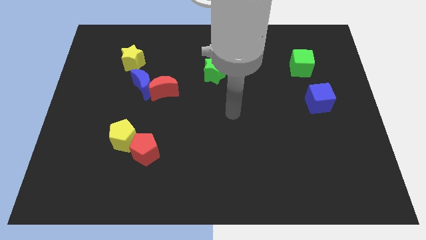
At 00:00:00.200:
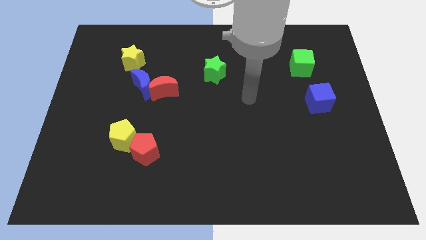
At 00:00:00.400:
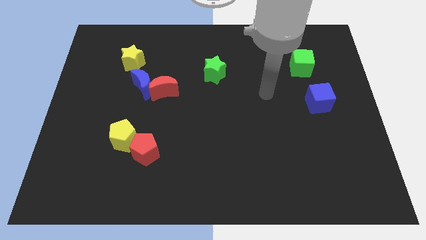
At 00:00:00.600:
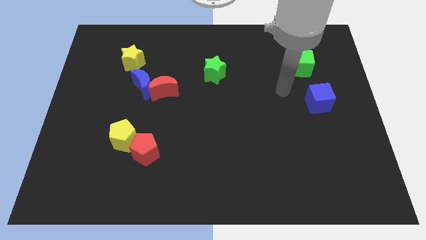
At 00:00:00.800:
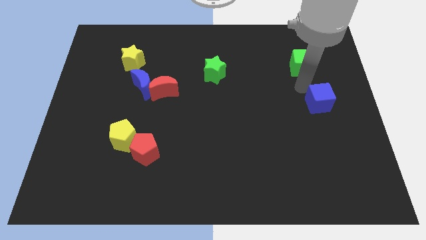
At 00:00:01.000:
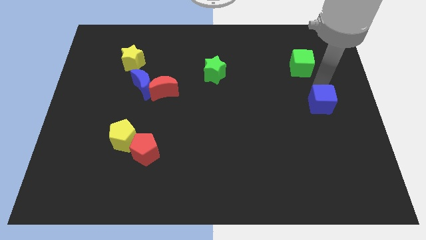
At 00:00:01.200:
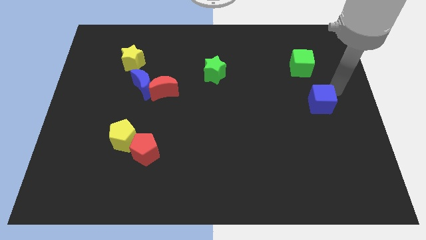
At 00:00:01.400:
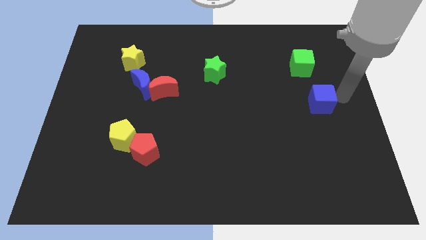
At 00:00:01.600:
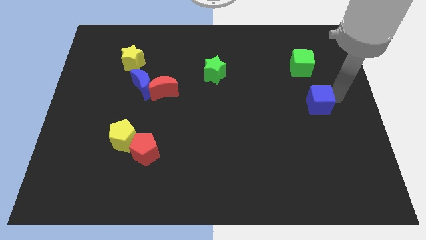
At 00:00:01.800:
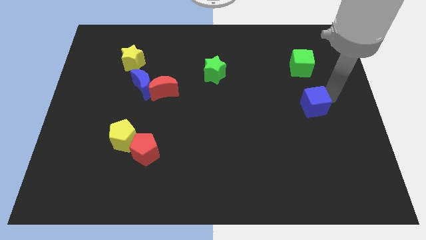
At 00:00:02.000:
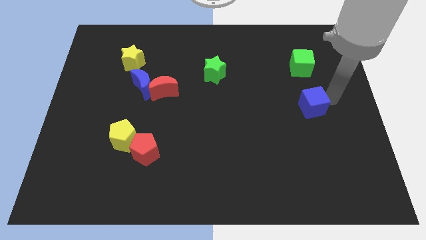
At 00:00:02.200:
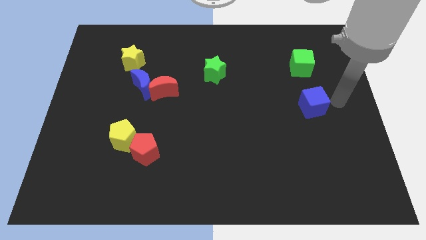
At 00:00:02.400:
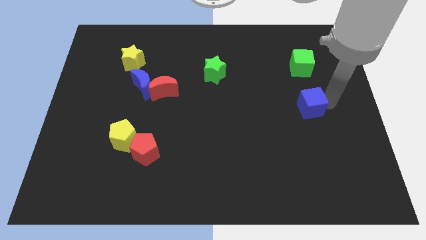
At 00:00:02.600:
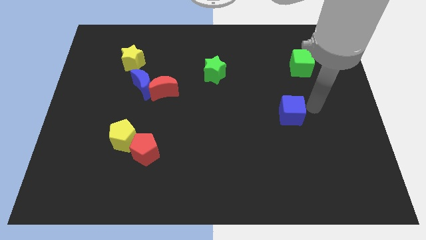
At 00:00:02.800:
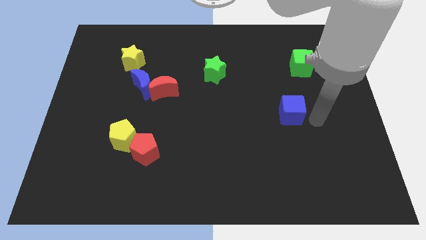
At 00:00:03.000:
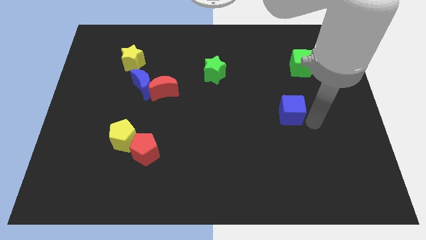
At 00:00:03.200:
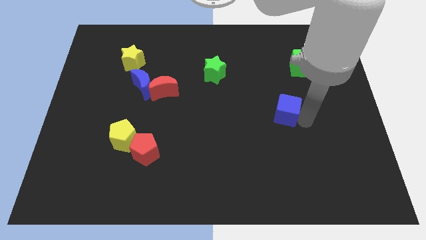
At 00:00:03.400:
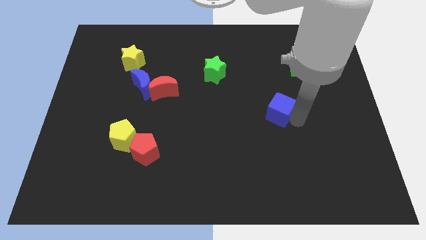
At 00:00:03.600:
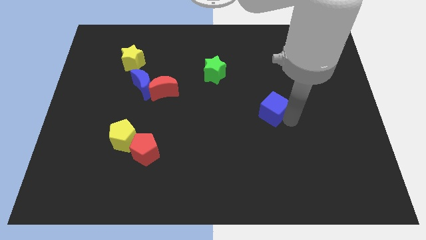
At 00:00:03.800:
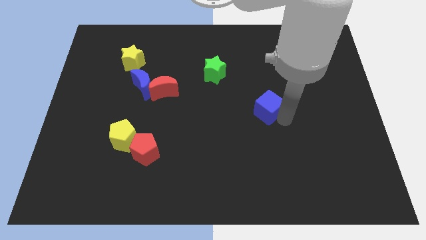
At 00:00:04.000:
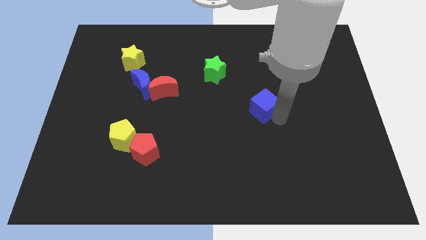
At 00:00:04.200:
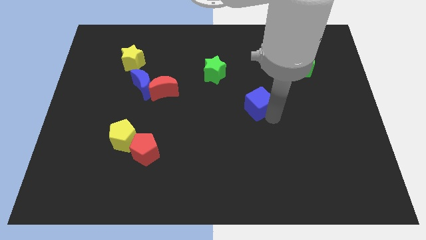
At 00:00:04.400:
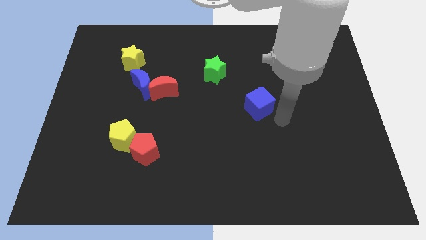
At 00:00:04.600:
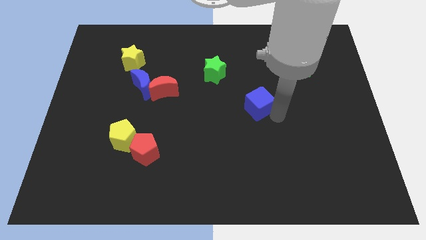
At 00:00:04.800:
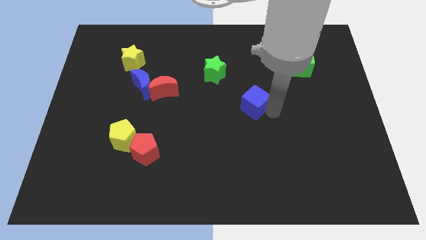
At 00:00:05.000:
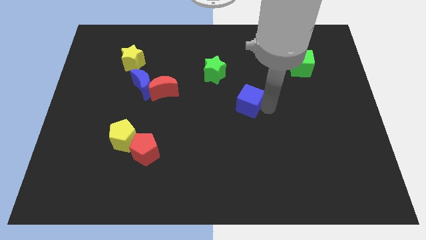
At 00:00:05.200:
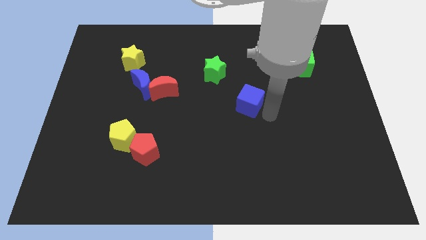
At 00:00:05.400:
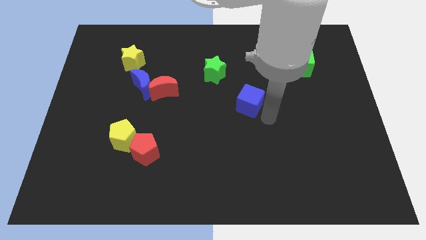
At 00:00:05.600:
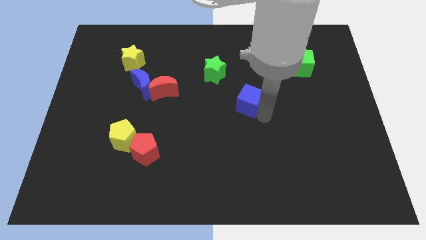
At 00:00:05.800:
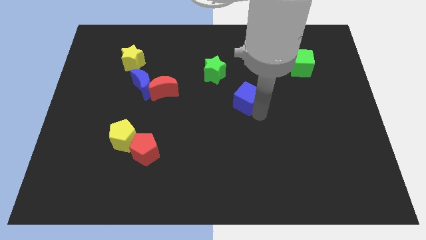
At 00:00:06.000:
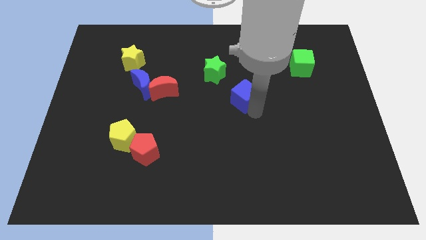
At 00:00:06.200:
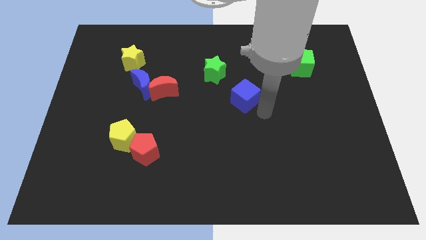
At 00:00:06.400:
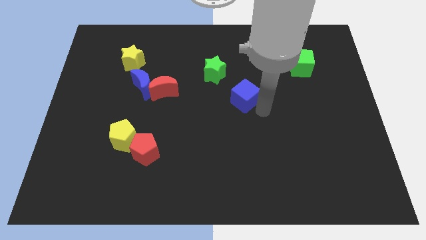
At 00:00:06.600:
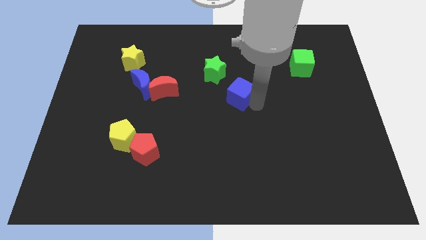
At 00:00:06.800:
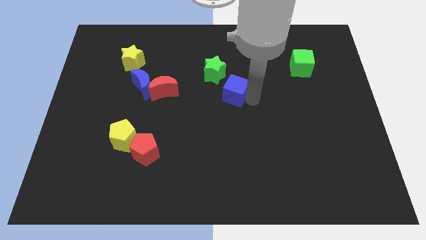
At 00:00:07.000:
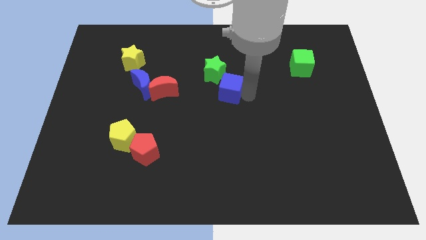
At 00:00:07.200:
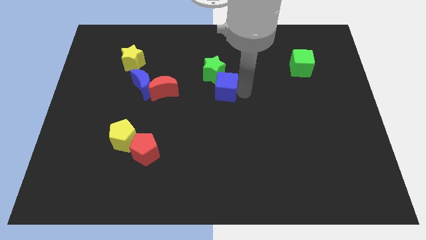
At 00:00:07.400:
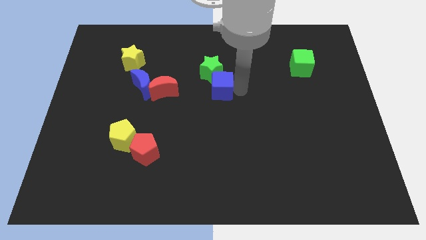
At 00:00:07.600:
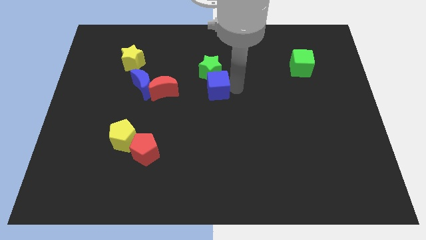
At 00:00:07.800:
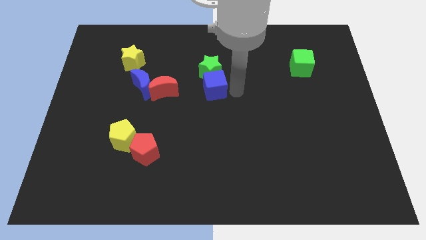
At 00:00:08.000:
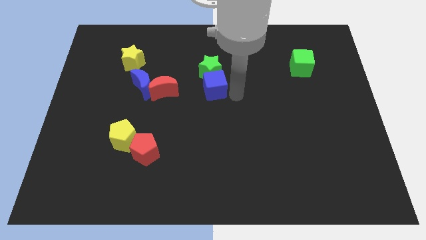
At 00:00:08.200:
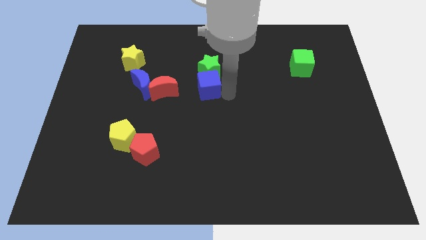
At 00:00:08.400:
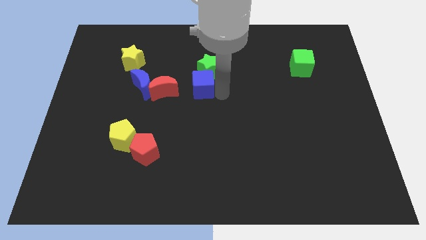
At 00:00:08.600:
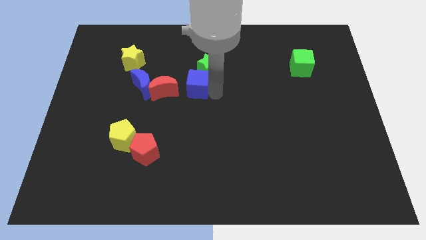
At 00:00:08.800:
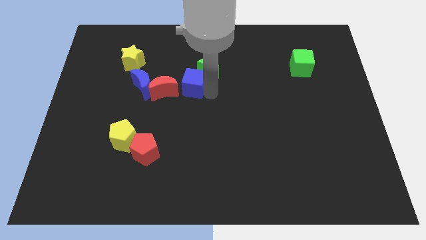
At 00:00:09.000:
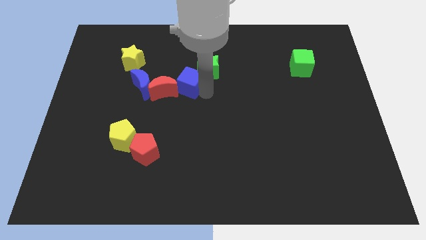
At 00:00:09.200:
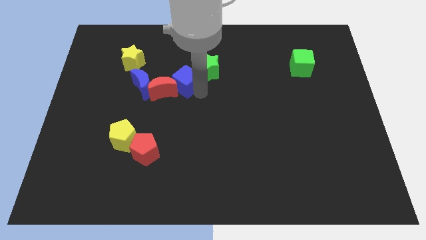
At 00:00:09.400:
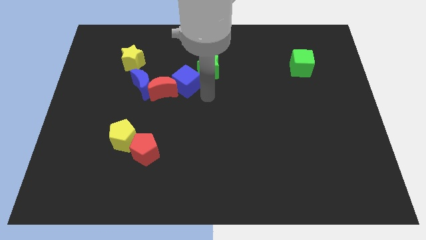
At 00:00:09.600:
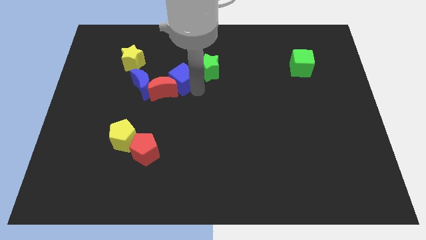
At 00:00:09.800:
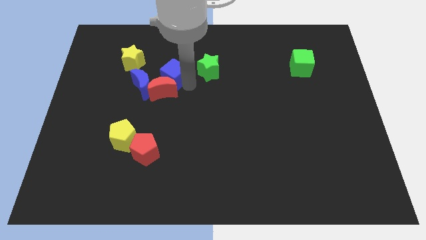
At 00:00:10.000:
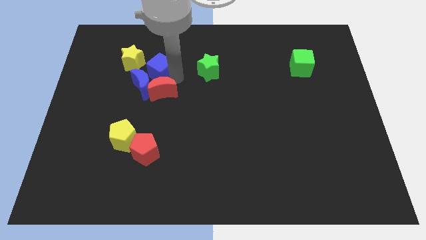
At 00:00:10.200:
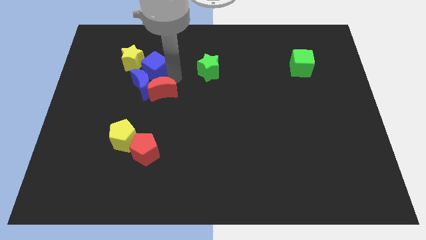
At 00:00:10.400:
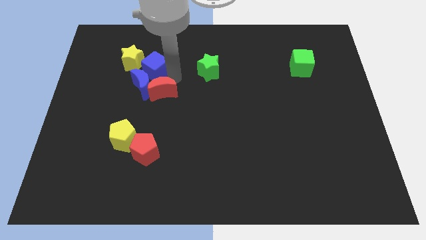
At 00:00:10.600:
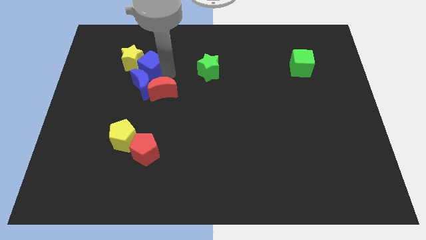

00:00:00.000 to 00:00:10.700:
move the blue cube to the yellow star

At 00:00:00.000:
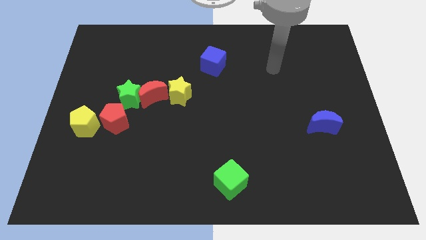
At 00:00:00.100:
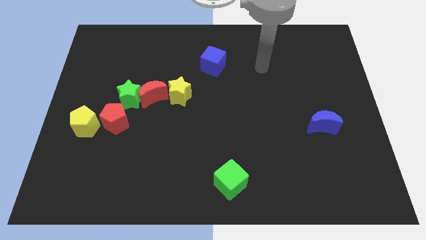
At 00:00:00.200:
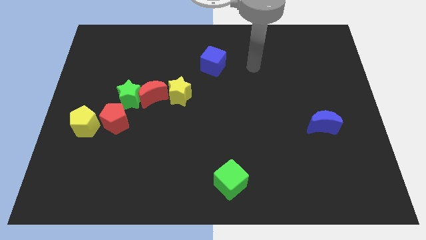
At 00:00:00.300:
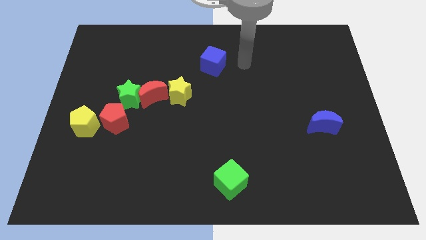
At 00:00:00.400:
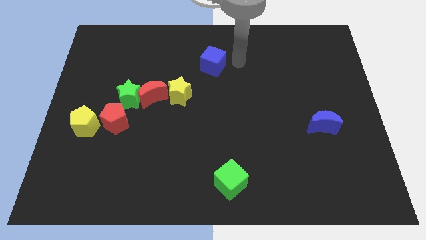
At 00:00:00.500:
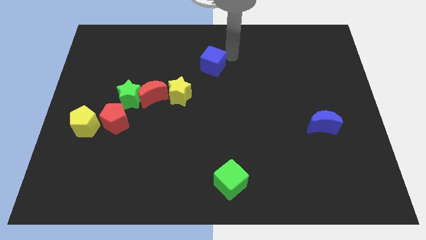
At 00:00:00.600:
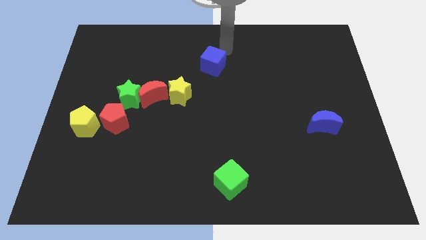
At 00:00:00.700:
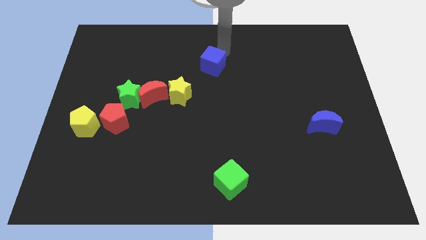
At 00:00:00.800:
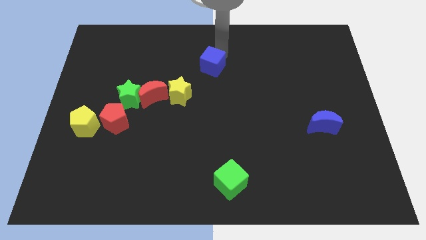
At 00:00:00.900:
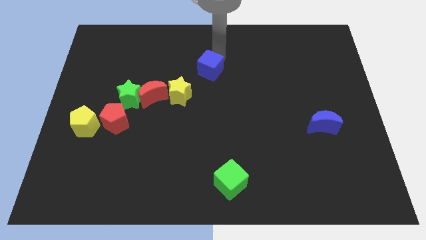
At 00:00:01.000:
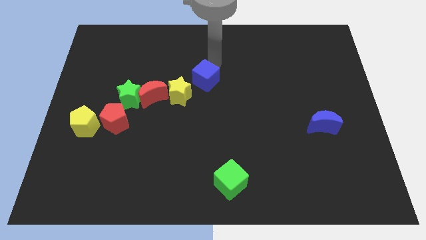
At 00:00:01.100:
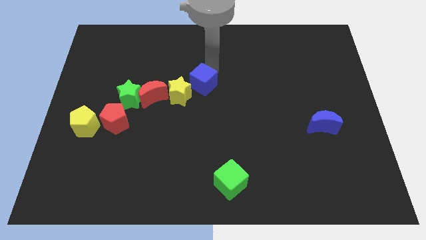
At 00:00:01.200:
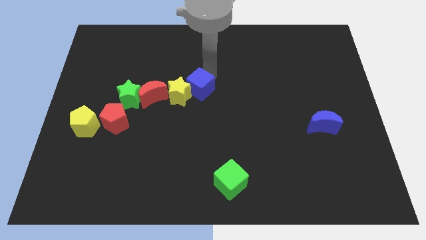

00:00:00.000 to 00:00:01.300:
slide the blue cube next to the yellow star
